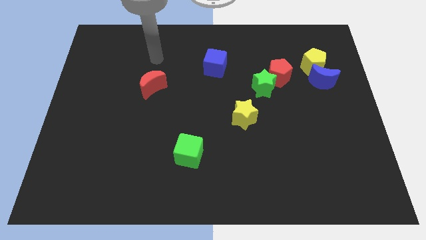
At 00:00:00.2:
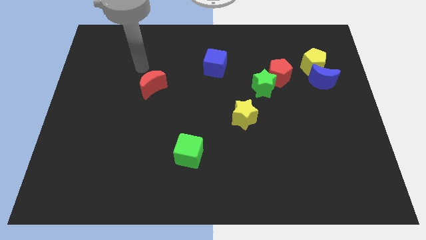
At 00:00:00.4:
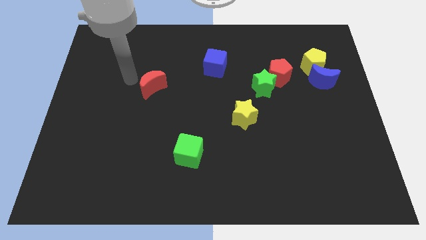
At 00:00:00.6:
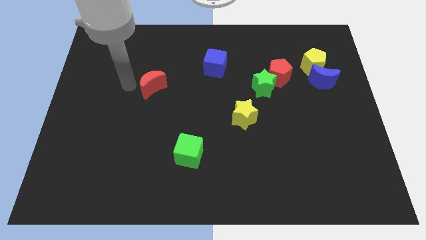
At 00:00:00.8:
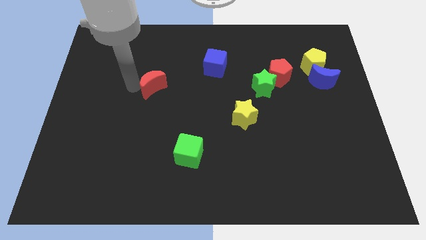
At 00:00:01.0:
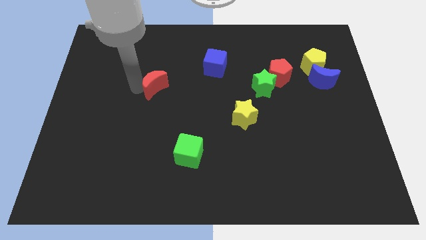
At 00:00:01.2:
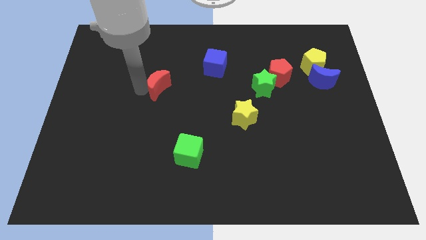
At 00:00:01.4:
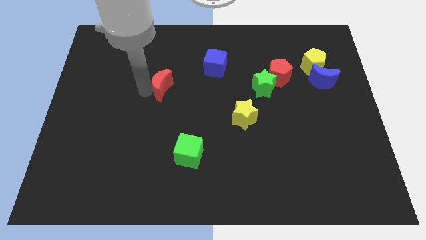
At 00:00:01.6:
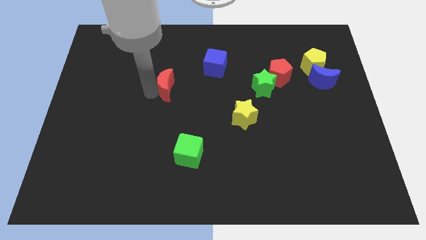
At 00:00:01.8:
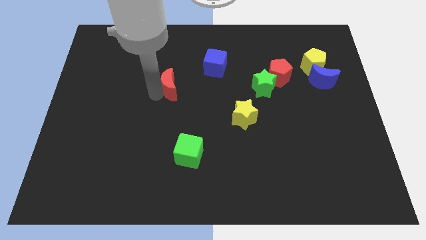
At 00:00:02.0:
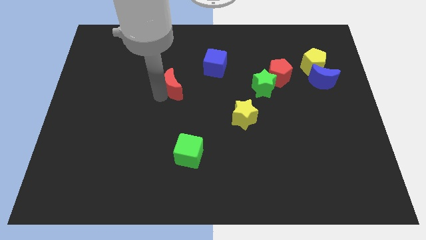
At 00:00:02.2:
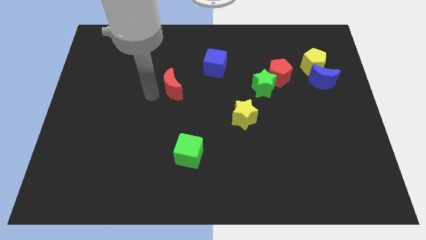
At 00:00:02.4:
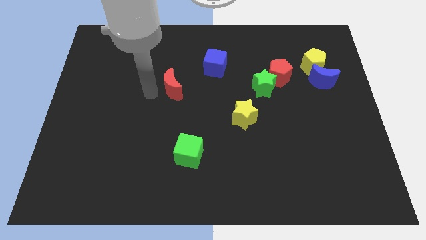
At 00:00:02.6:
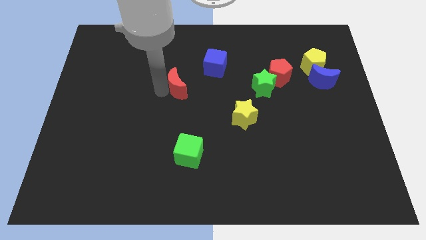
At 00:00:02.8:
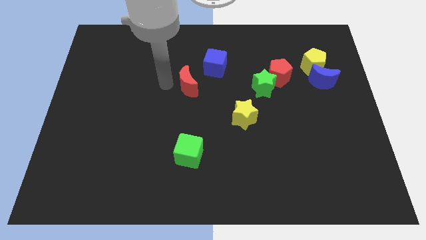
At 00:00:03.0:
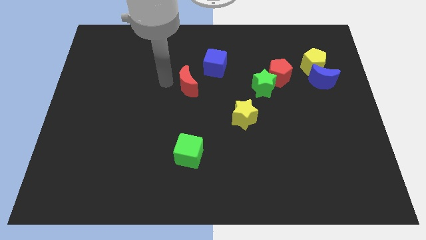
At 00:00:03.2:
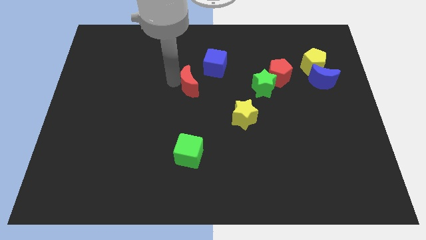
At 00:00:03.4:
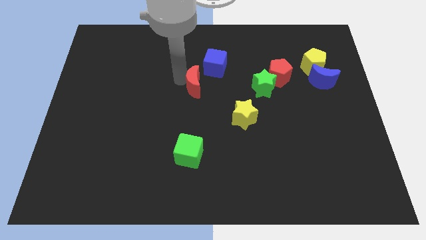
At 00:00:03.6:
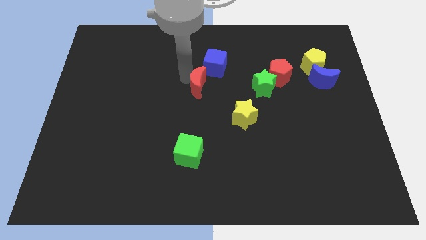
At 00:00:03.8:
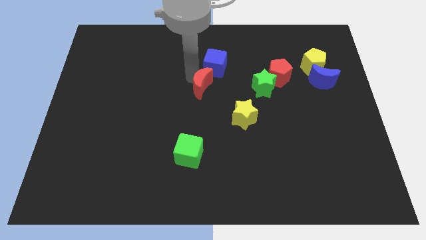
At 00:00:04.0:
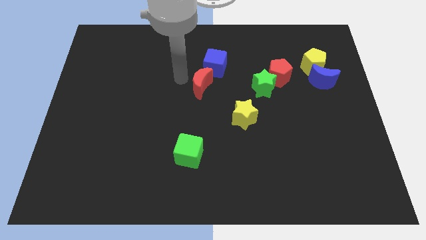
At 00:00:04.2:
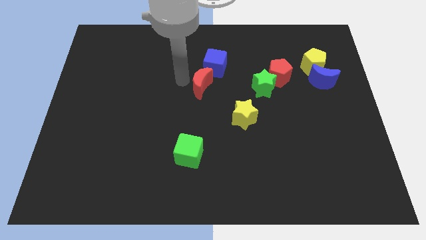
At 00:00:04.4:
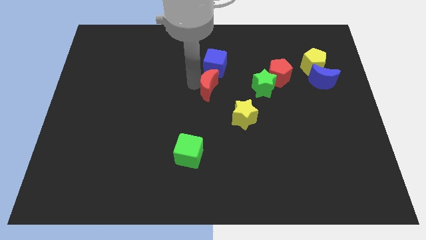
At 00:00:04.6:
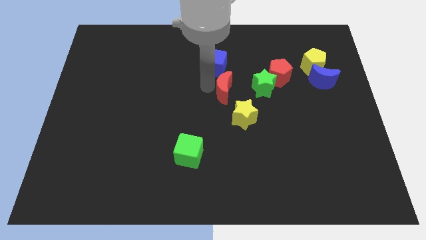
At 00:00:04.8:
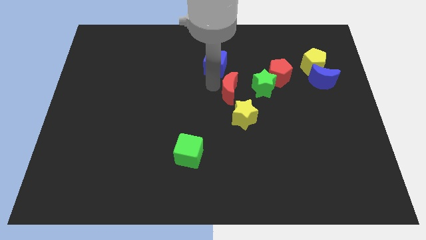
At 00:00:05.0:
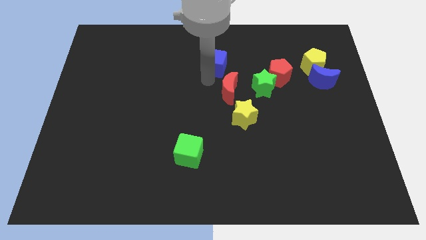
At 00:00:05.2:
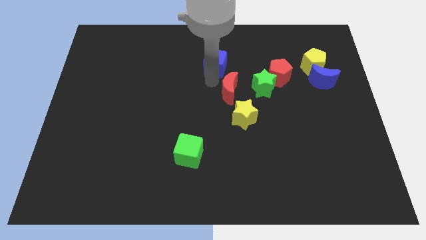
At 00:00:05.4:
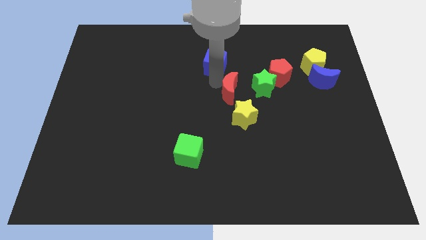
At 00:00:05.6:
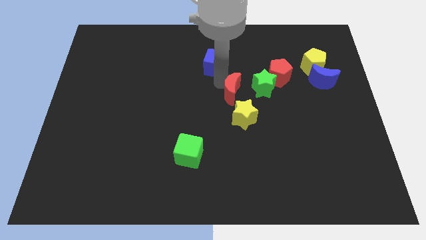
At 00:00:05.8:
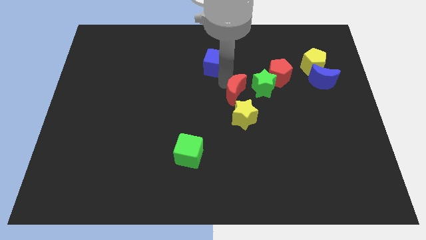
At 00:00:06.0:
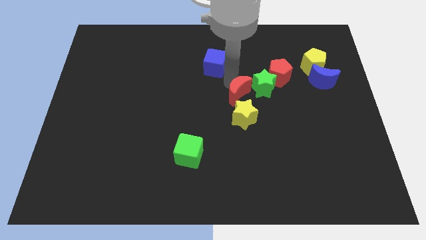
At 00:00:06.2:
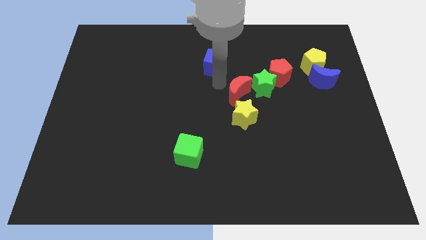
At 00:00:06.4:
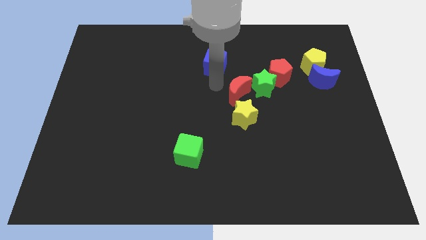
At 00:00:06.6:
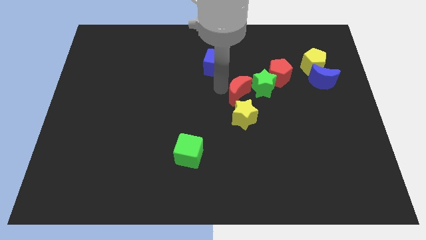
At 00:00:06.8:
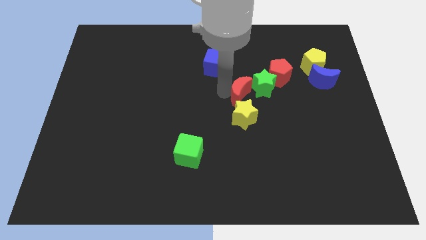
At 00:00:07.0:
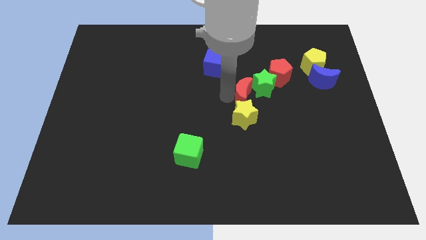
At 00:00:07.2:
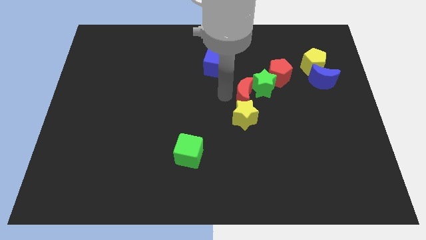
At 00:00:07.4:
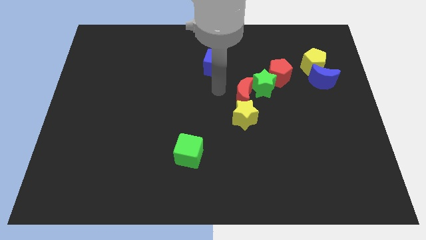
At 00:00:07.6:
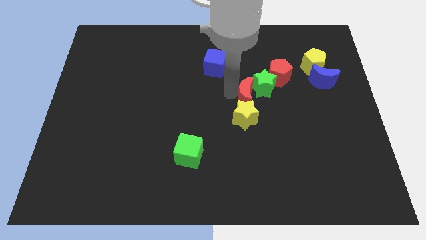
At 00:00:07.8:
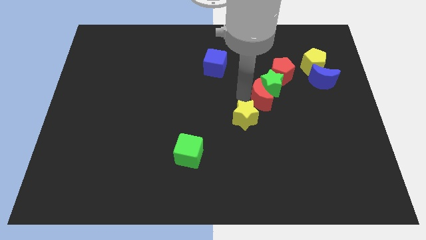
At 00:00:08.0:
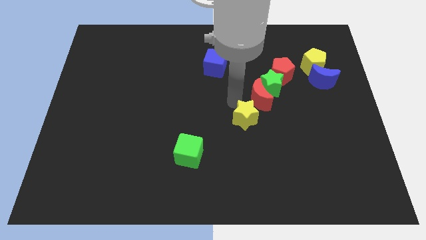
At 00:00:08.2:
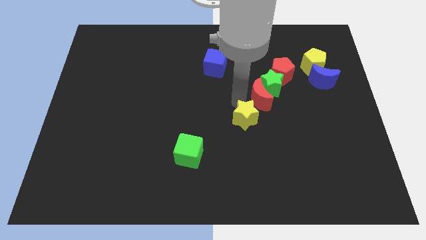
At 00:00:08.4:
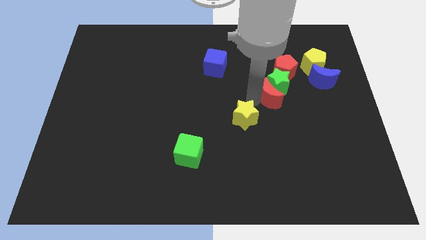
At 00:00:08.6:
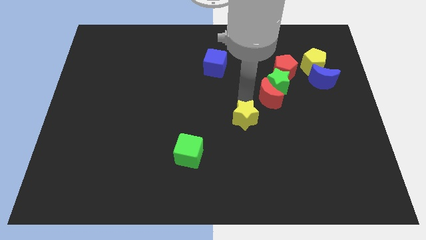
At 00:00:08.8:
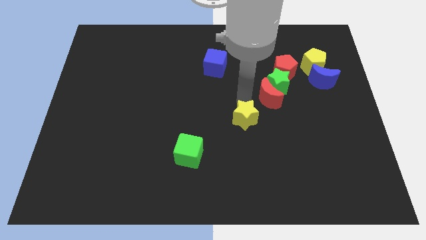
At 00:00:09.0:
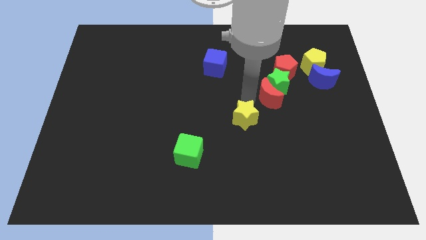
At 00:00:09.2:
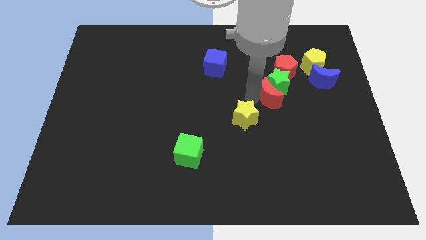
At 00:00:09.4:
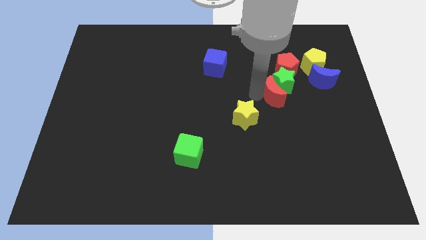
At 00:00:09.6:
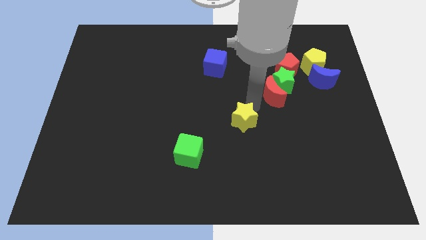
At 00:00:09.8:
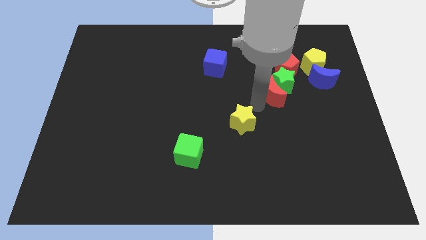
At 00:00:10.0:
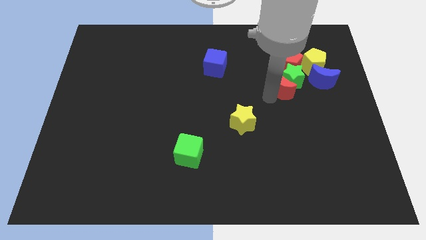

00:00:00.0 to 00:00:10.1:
put the red moon diagonally down and to the left of the yellow pentagon

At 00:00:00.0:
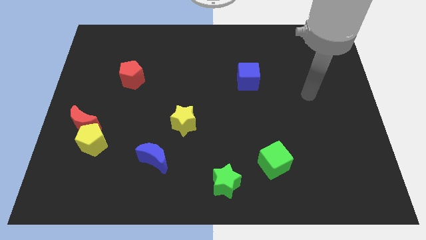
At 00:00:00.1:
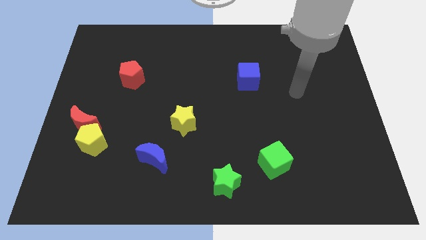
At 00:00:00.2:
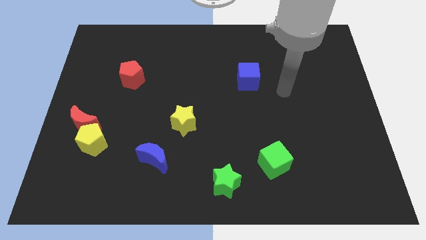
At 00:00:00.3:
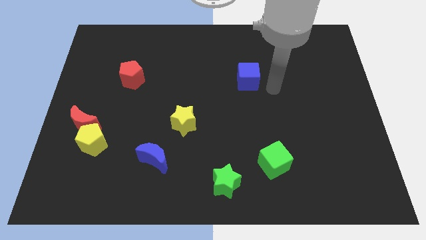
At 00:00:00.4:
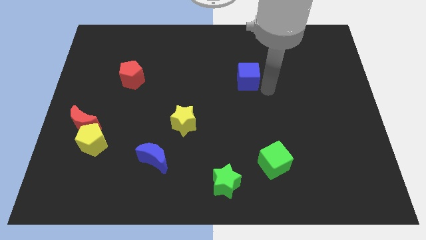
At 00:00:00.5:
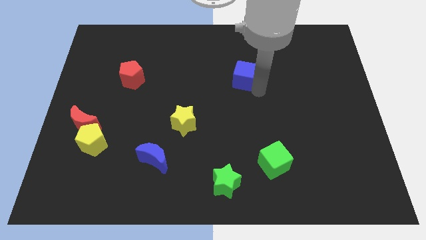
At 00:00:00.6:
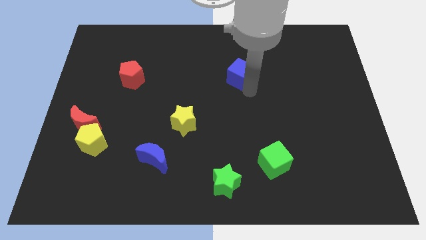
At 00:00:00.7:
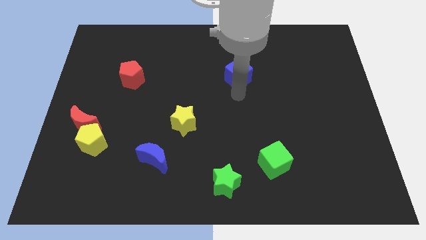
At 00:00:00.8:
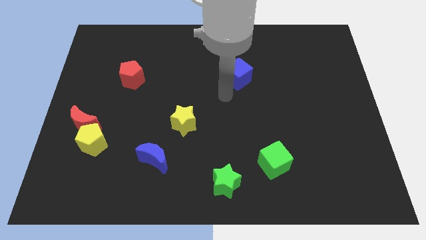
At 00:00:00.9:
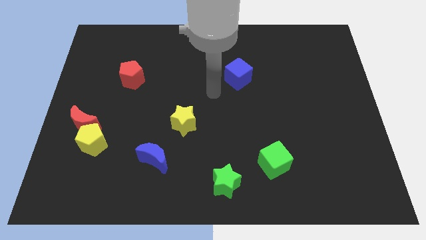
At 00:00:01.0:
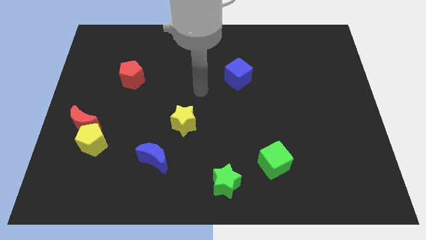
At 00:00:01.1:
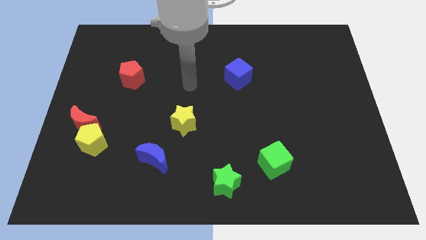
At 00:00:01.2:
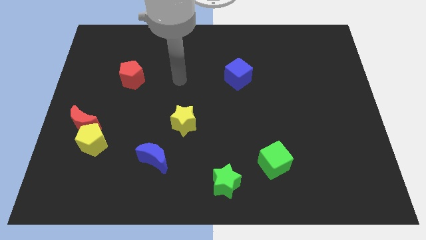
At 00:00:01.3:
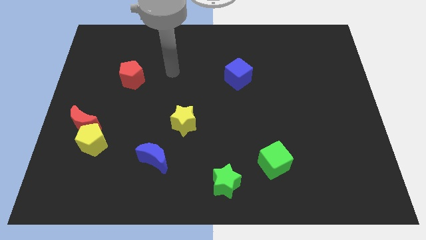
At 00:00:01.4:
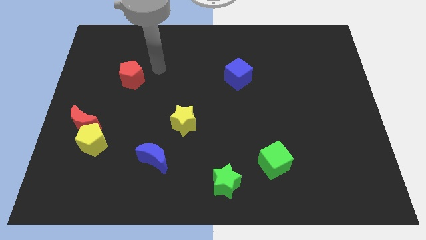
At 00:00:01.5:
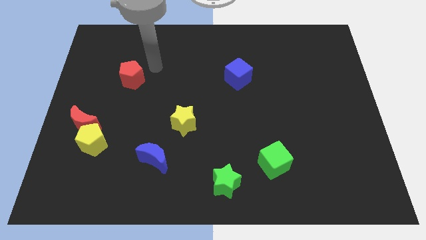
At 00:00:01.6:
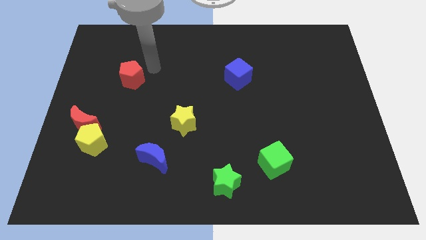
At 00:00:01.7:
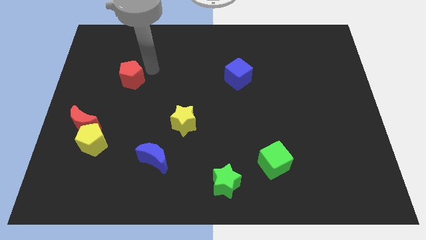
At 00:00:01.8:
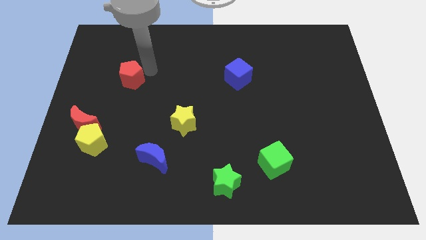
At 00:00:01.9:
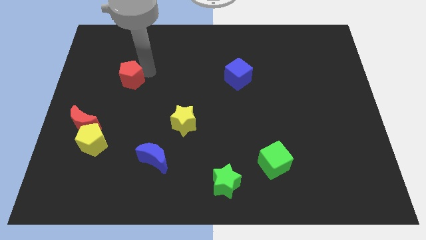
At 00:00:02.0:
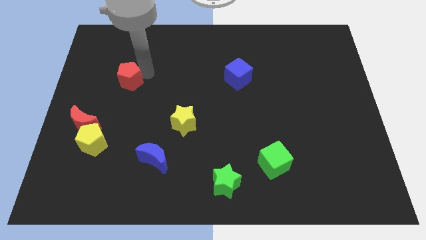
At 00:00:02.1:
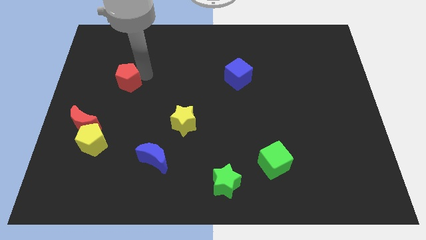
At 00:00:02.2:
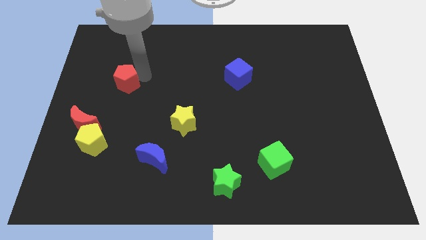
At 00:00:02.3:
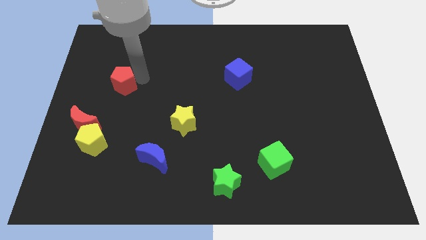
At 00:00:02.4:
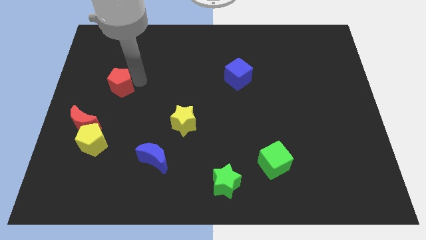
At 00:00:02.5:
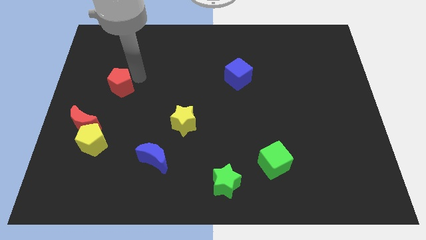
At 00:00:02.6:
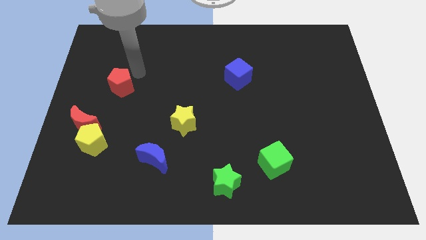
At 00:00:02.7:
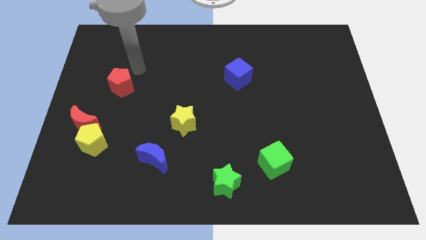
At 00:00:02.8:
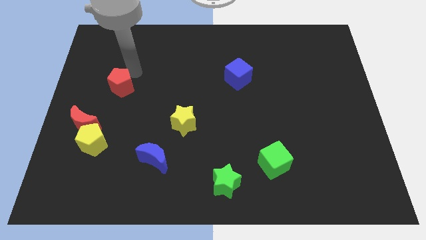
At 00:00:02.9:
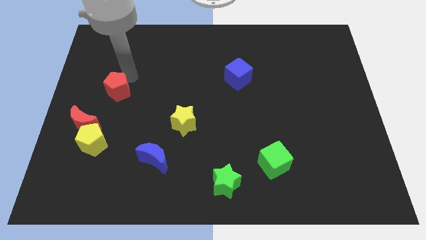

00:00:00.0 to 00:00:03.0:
push the red pentagon to the top of the yellow pentagon
